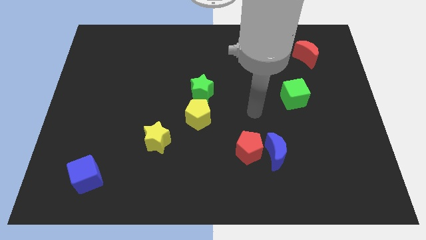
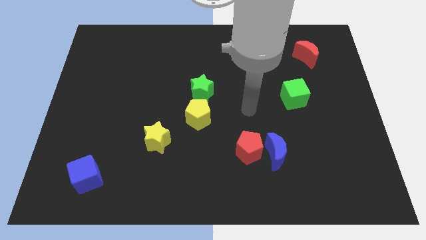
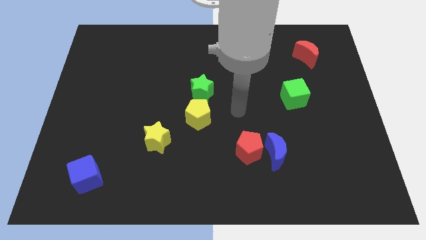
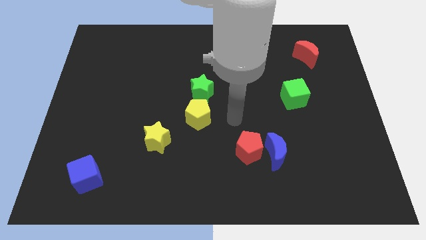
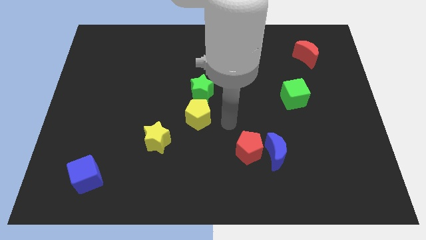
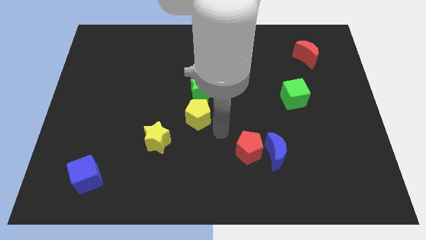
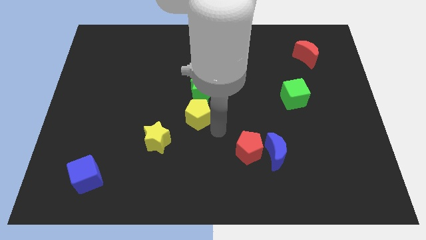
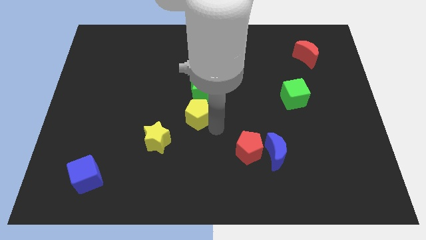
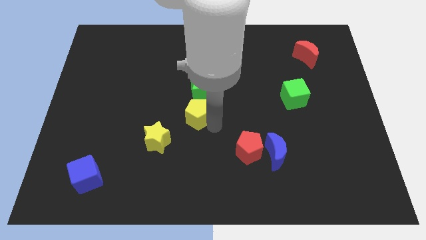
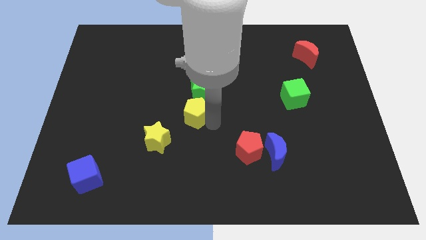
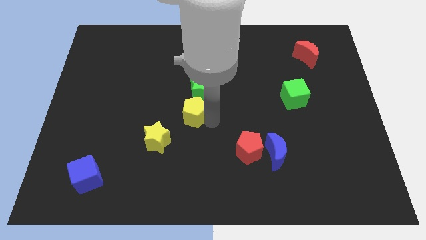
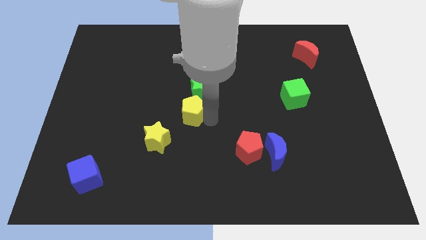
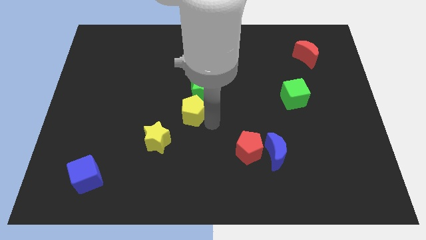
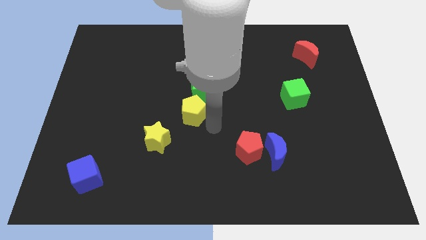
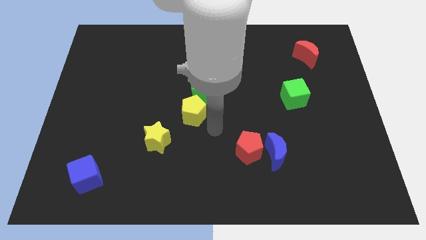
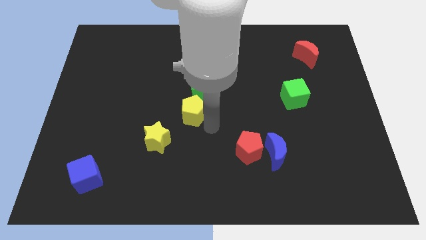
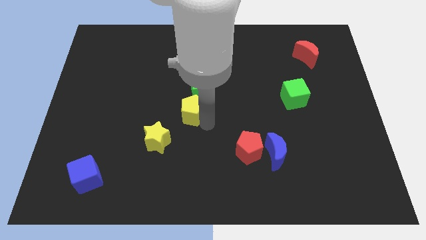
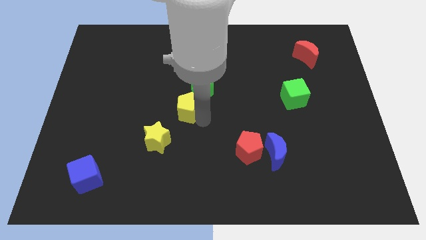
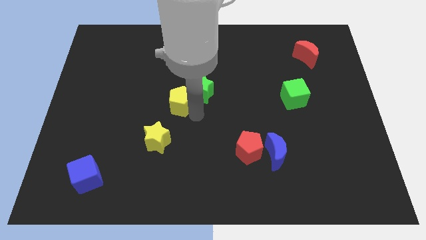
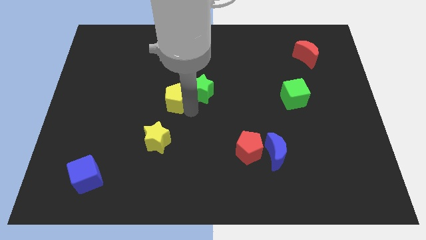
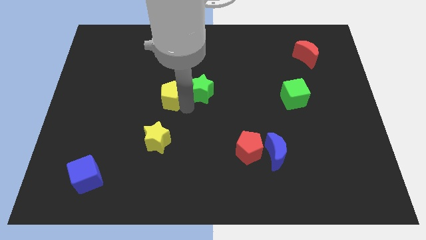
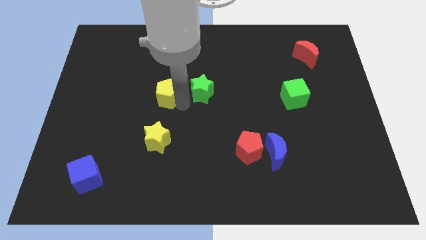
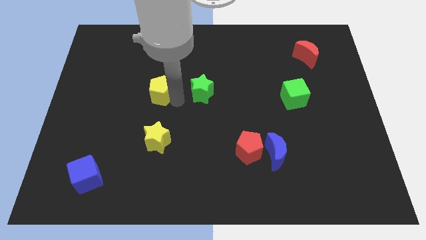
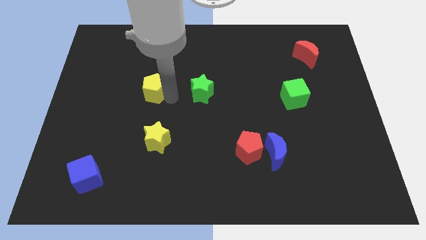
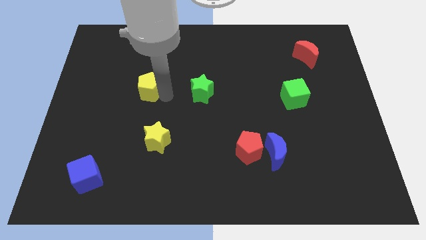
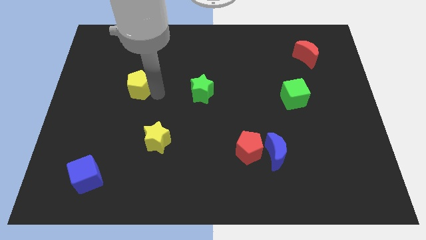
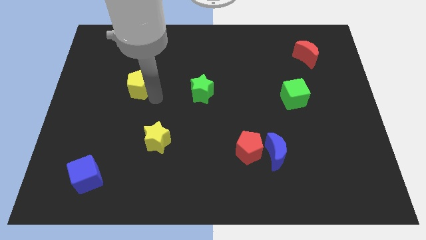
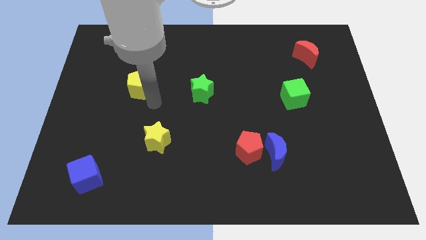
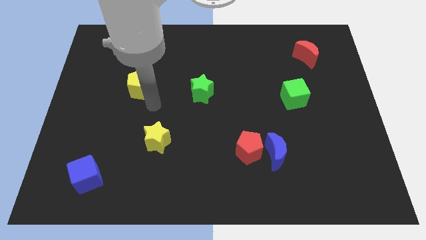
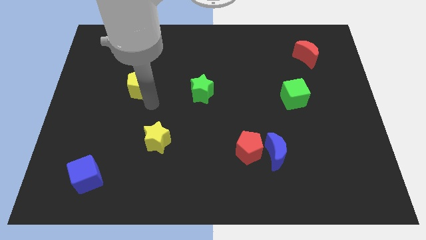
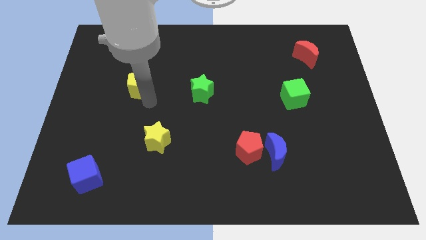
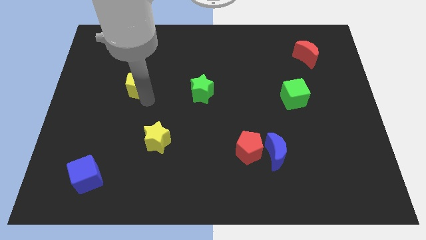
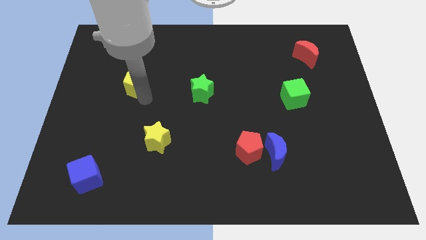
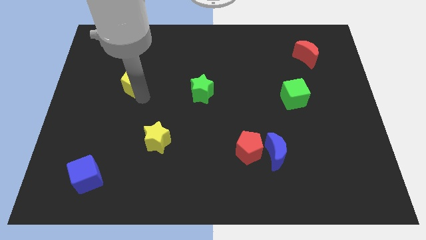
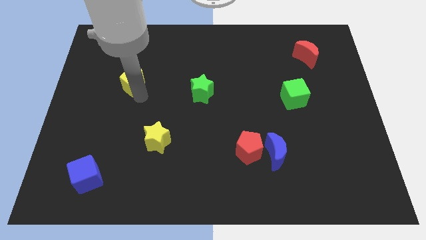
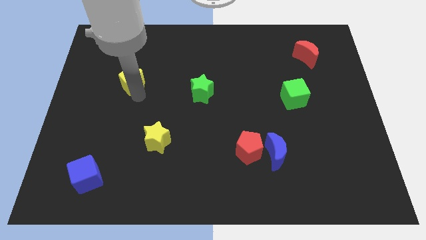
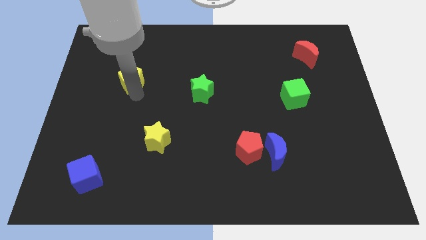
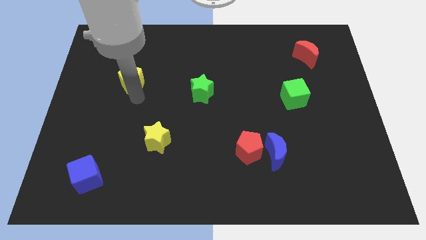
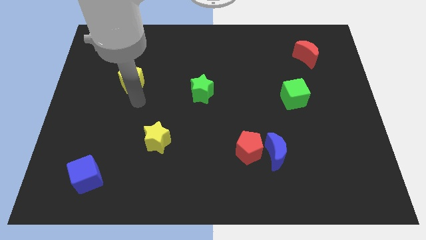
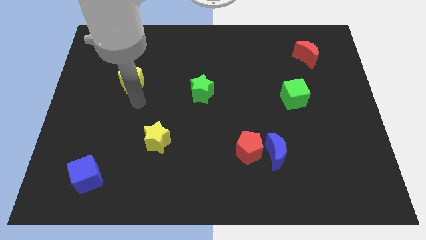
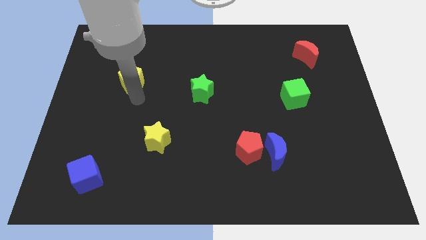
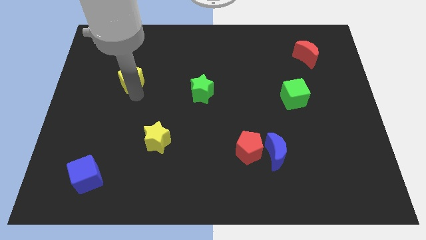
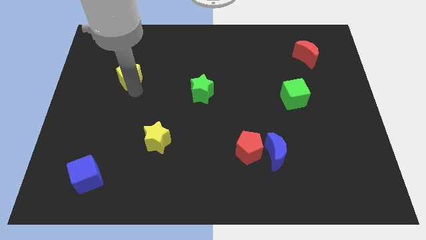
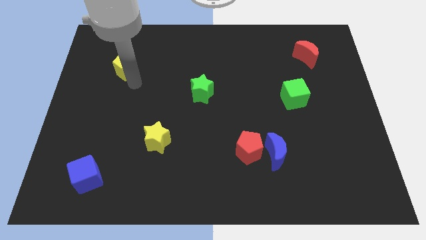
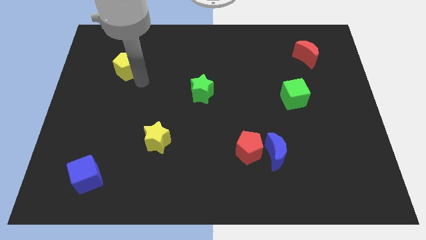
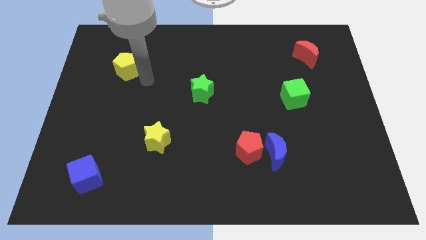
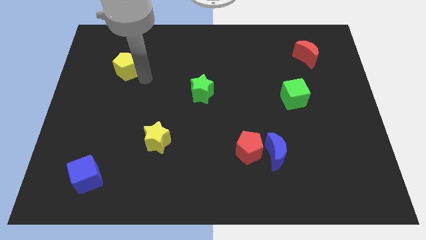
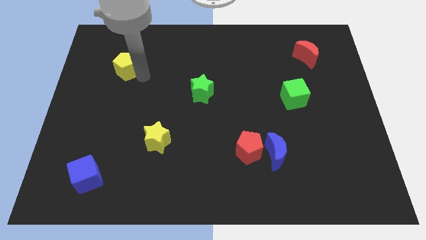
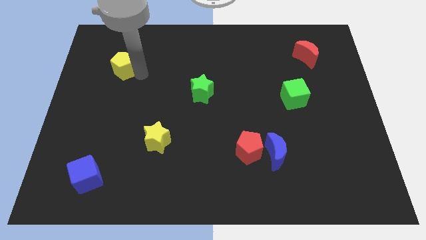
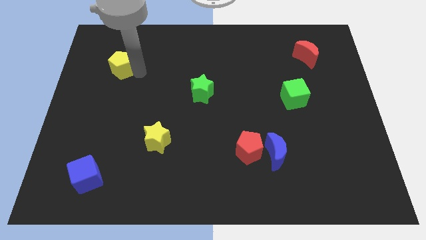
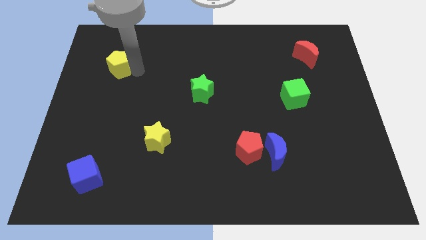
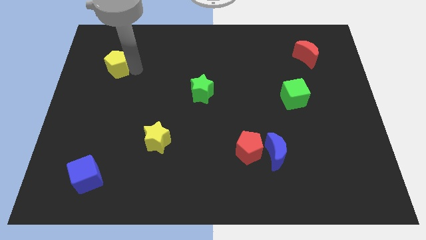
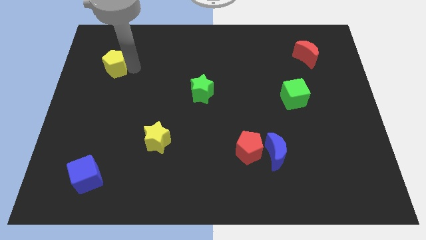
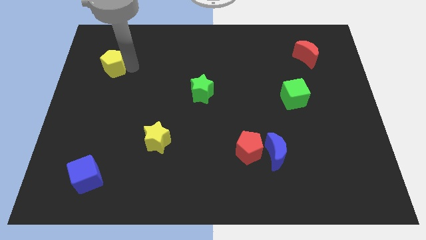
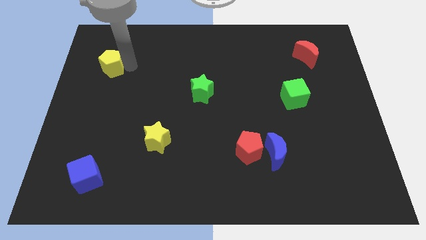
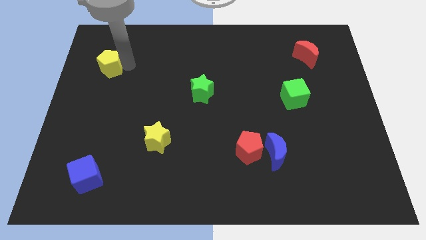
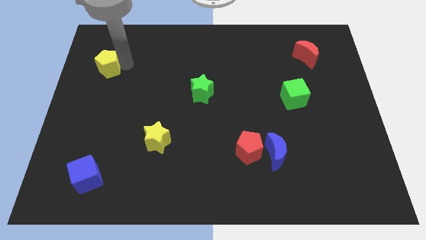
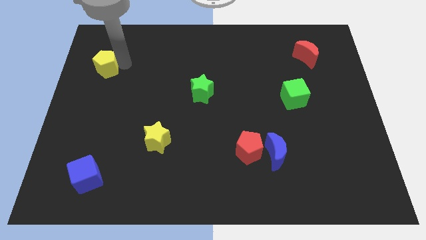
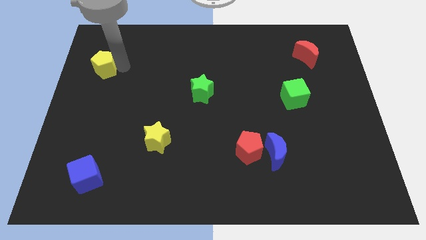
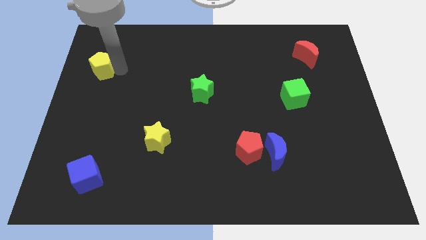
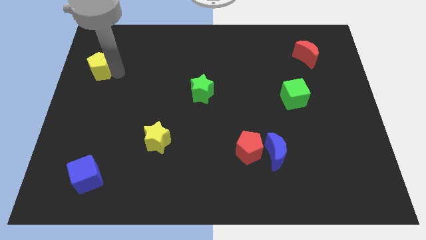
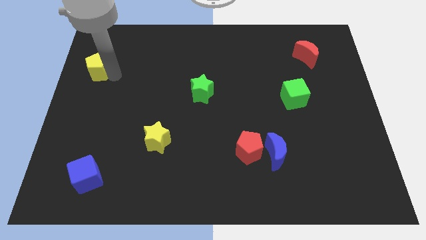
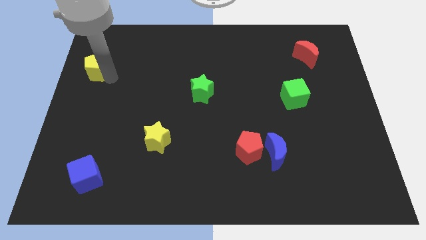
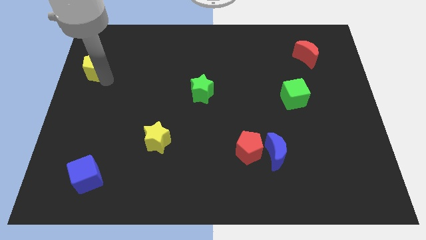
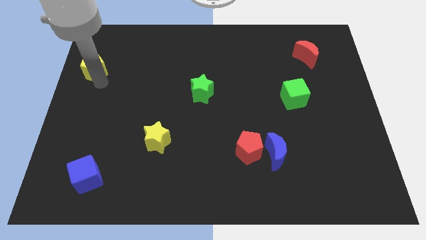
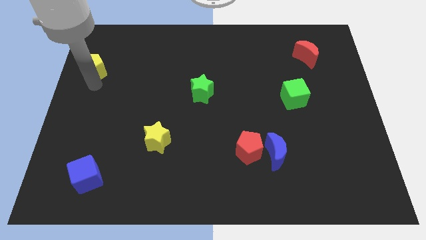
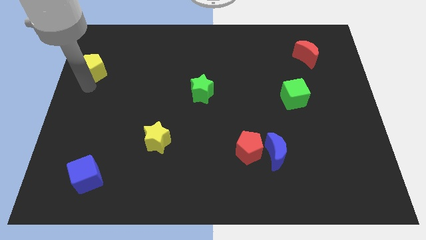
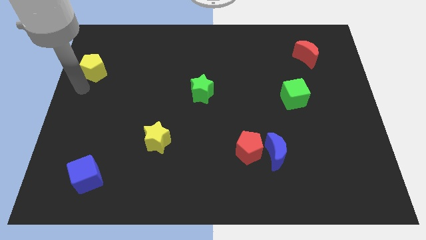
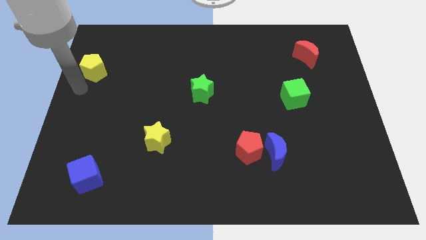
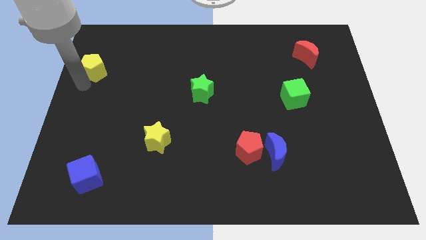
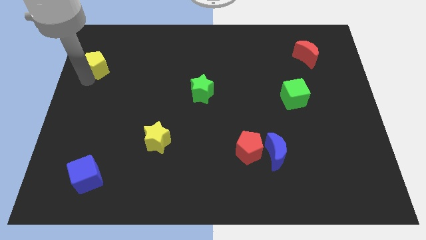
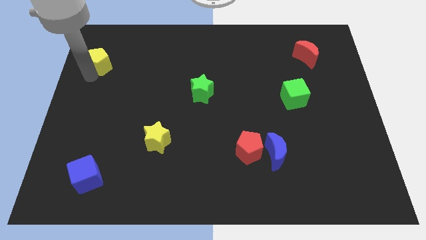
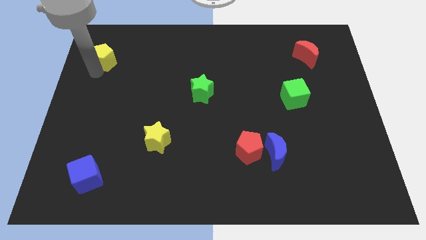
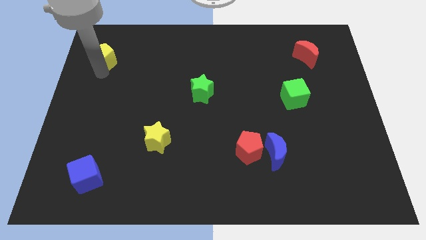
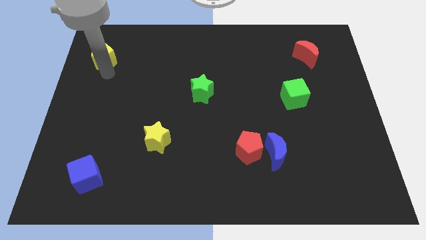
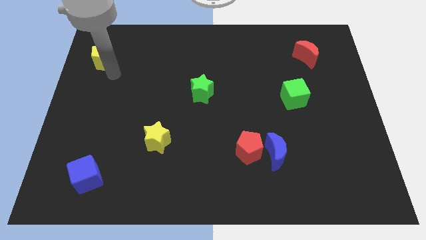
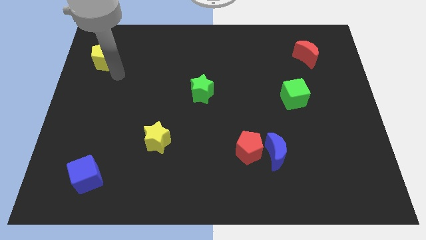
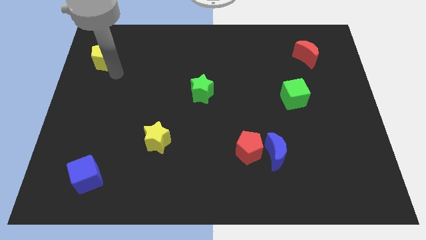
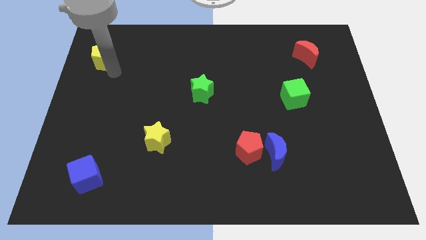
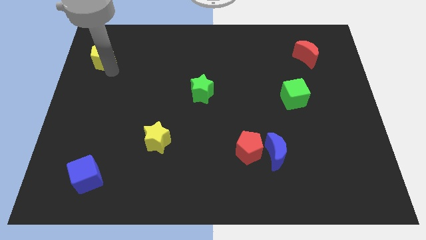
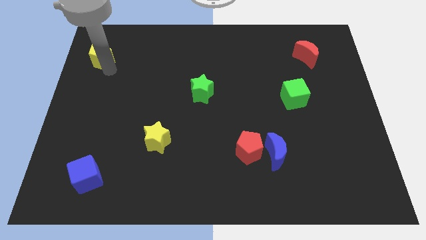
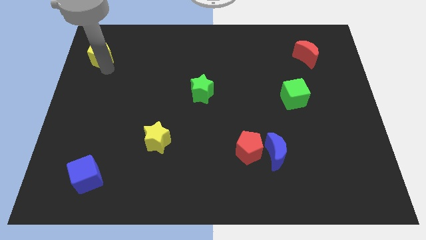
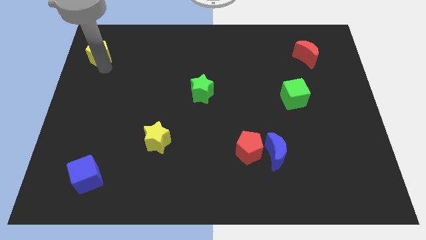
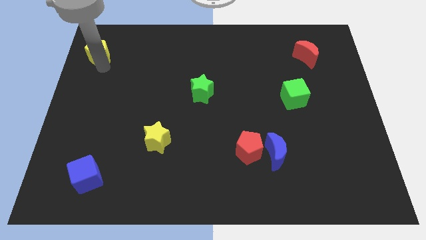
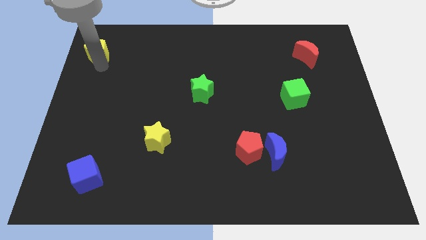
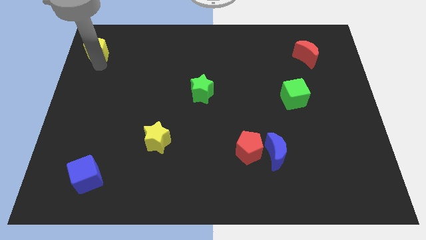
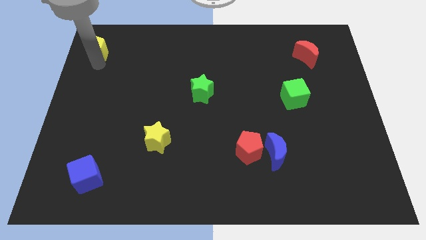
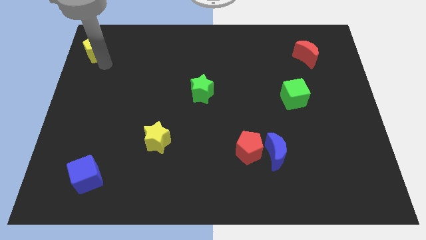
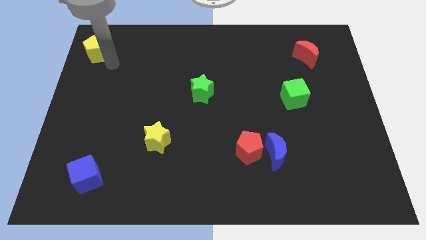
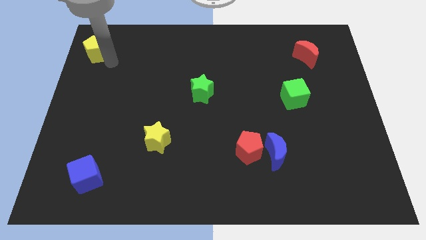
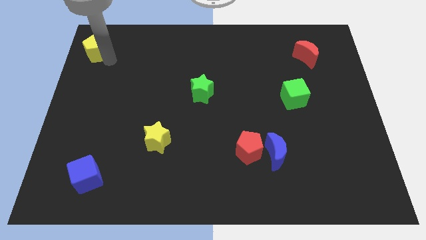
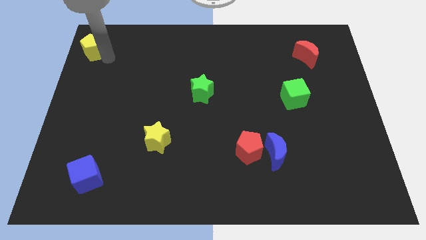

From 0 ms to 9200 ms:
push the yellow pentagon to the upper left corner
